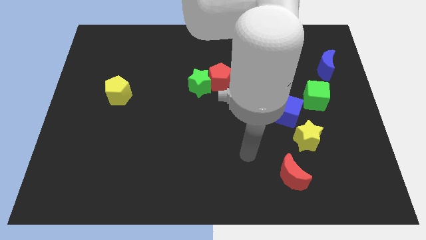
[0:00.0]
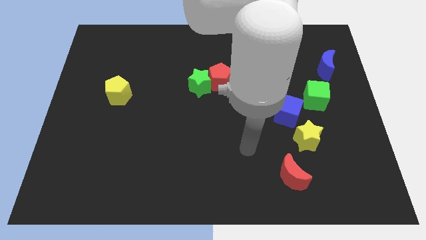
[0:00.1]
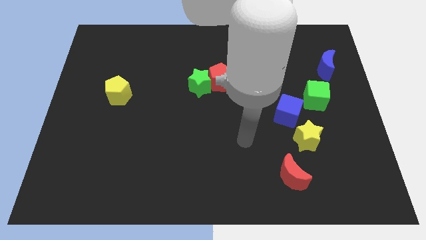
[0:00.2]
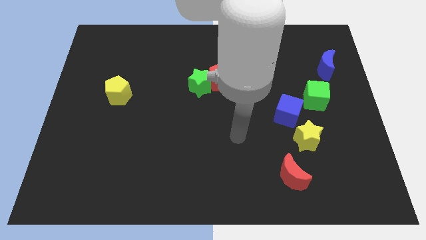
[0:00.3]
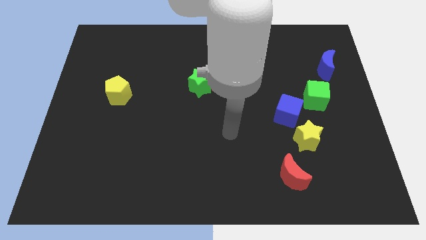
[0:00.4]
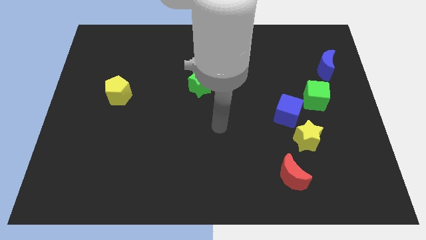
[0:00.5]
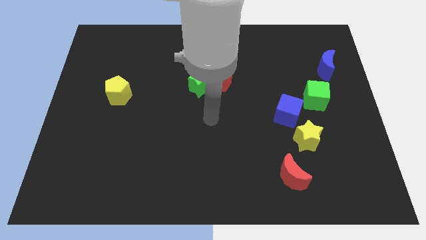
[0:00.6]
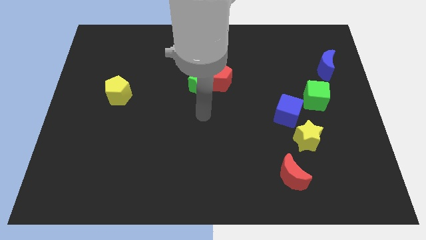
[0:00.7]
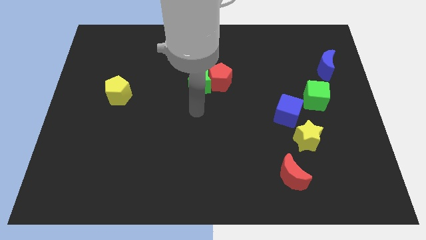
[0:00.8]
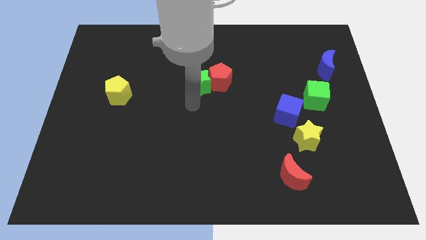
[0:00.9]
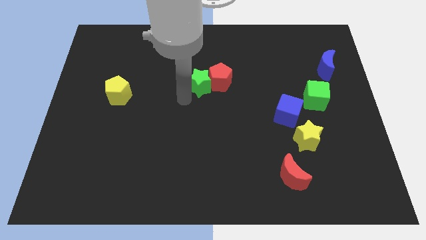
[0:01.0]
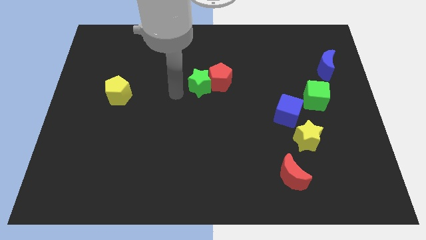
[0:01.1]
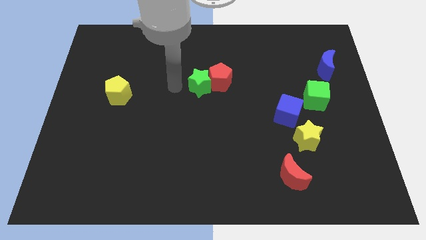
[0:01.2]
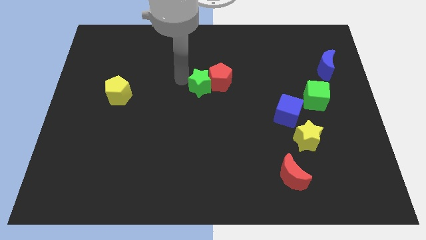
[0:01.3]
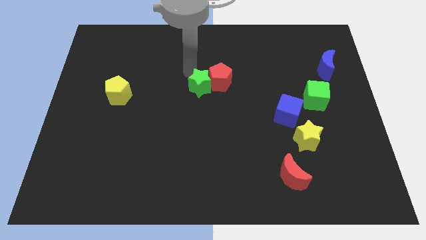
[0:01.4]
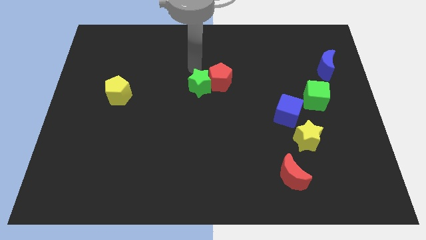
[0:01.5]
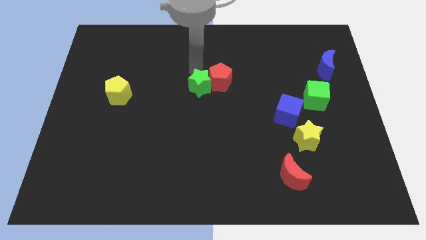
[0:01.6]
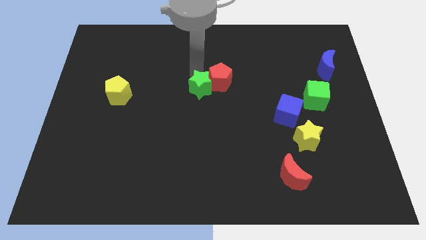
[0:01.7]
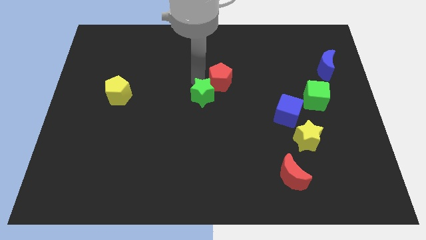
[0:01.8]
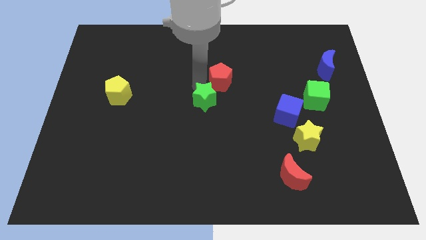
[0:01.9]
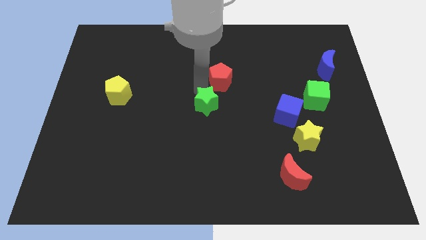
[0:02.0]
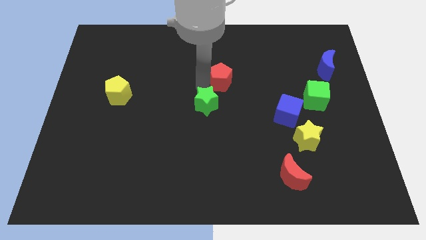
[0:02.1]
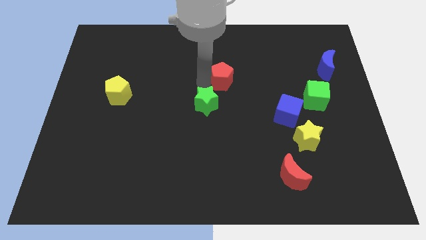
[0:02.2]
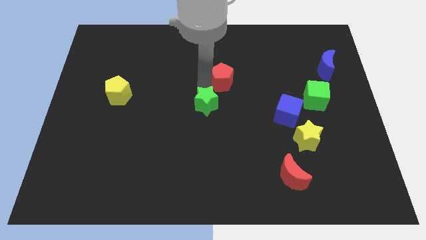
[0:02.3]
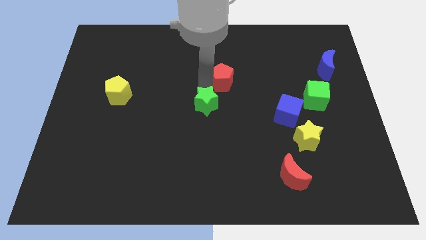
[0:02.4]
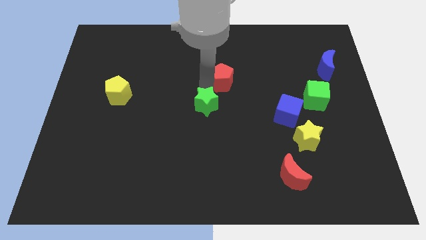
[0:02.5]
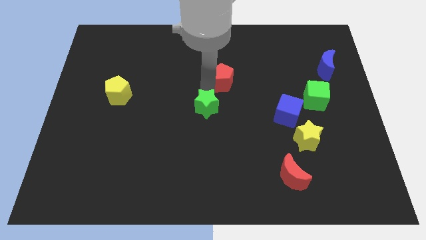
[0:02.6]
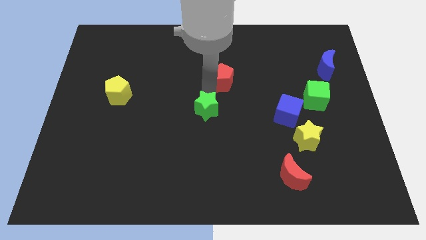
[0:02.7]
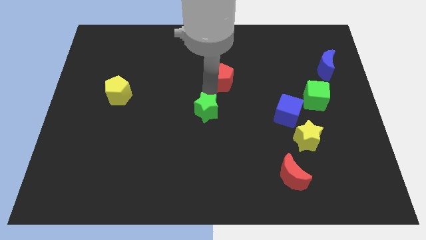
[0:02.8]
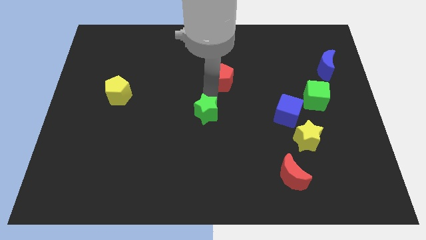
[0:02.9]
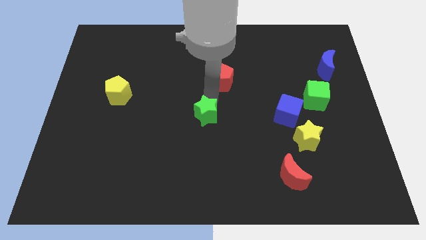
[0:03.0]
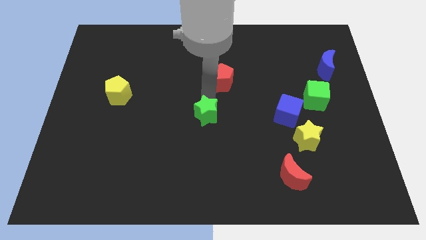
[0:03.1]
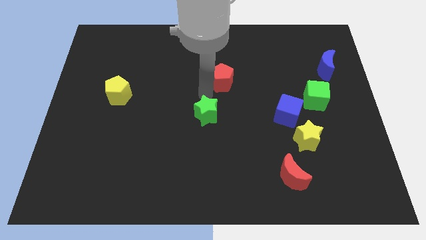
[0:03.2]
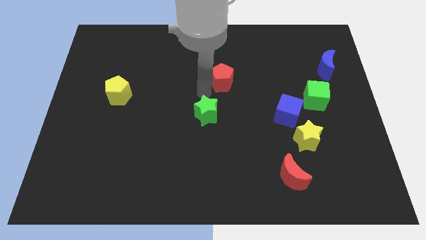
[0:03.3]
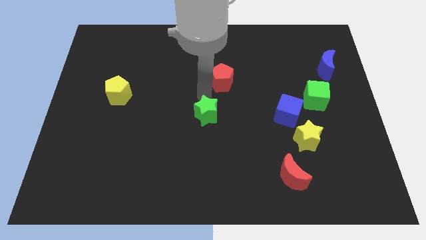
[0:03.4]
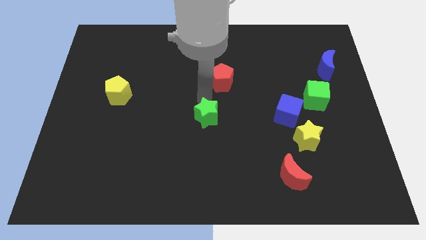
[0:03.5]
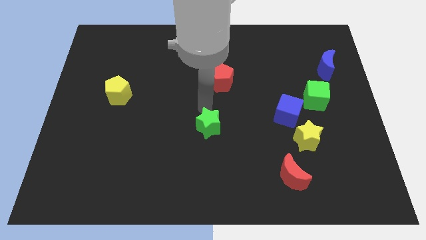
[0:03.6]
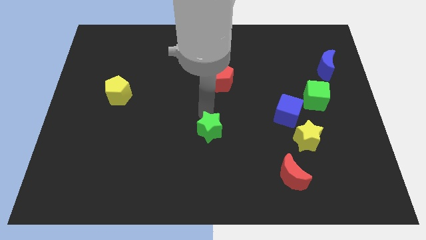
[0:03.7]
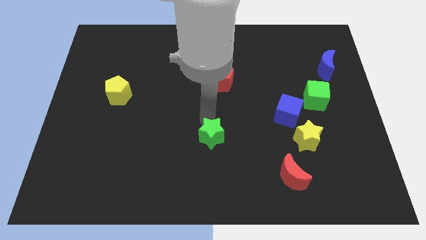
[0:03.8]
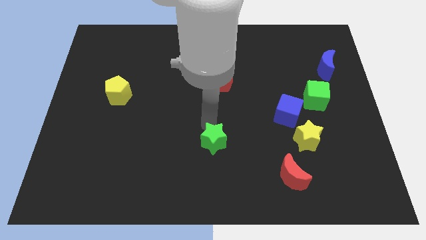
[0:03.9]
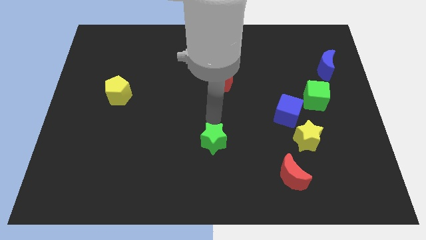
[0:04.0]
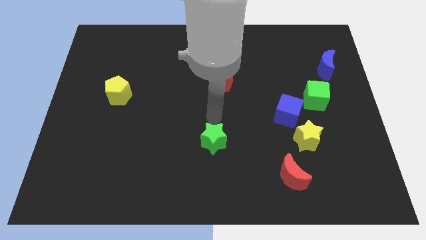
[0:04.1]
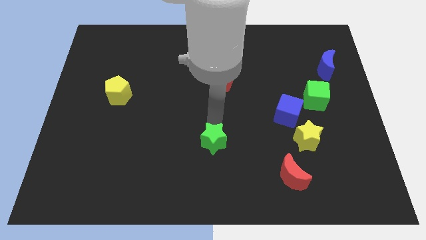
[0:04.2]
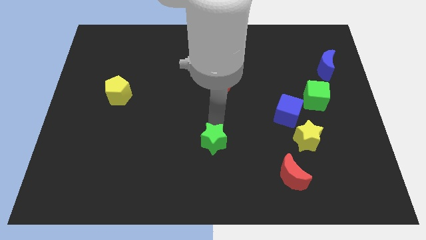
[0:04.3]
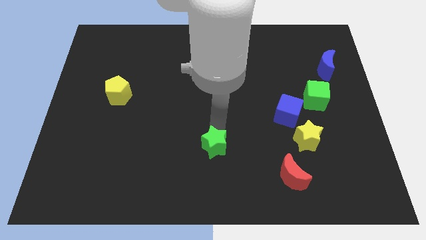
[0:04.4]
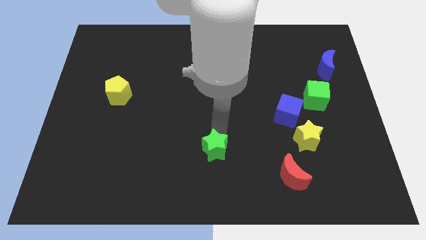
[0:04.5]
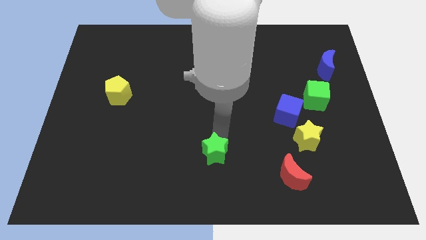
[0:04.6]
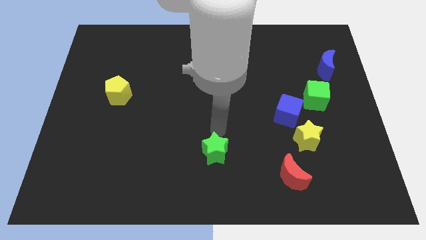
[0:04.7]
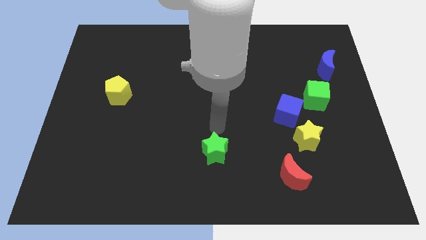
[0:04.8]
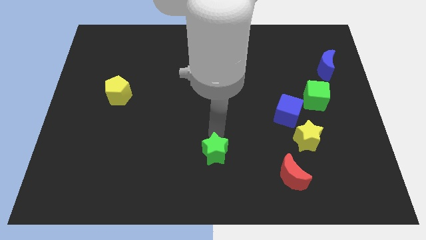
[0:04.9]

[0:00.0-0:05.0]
push the green star to the bottom

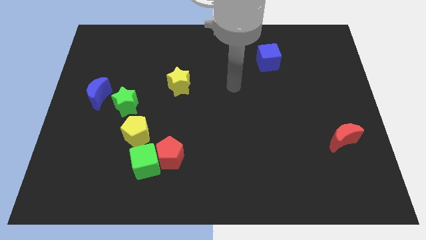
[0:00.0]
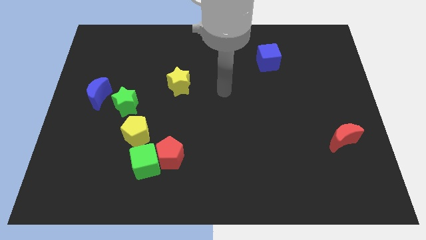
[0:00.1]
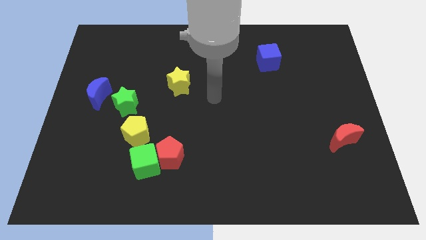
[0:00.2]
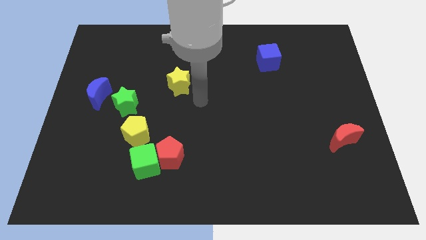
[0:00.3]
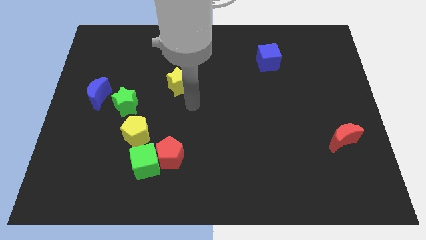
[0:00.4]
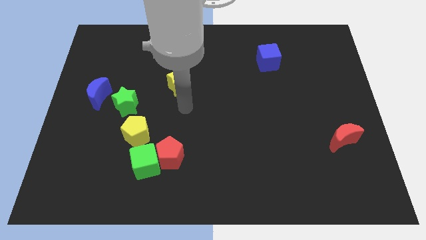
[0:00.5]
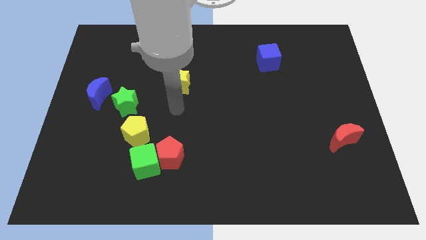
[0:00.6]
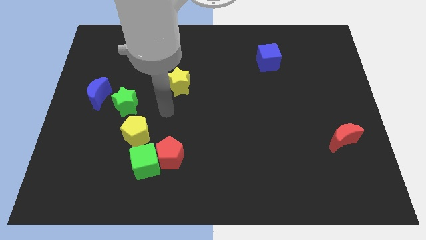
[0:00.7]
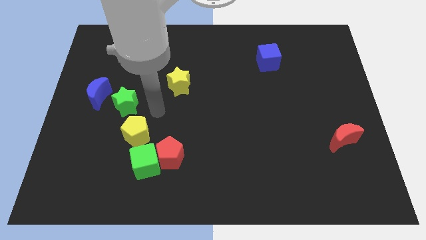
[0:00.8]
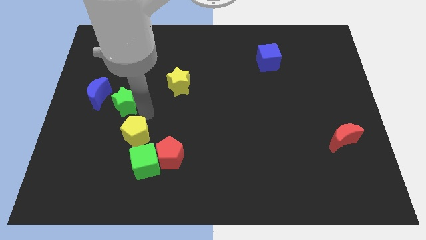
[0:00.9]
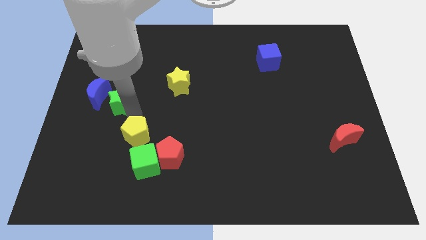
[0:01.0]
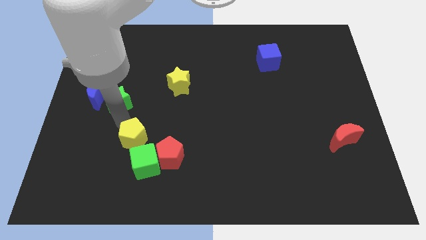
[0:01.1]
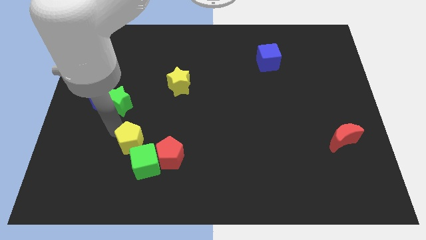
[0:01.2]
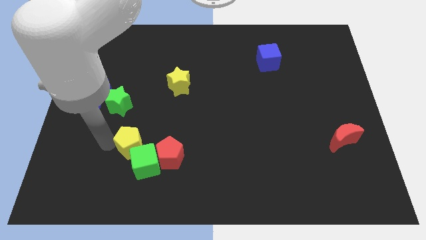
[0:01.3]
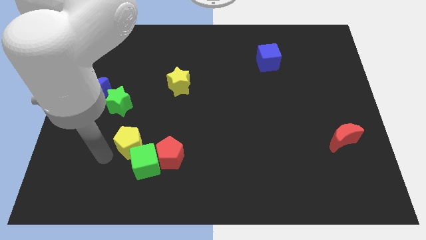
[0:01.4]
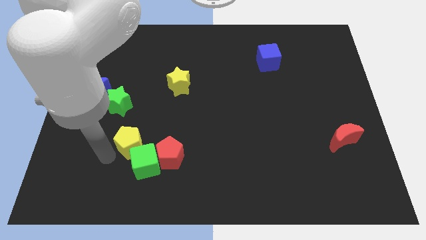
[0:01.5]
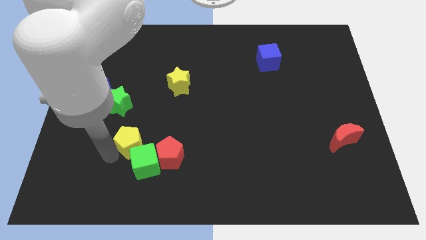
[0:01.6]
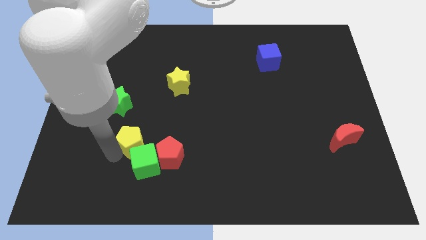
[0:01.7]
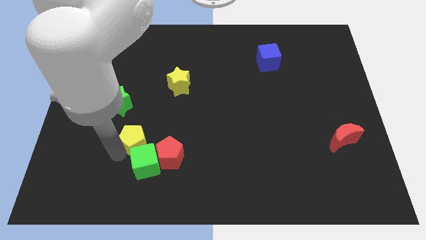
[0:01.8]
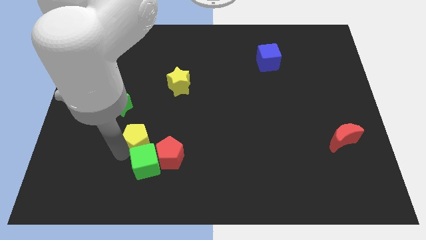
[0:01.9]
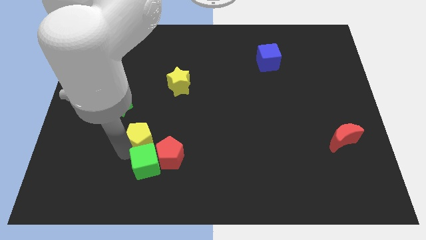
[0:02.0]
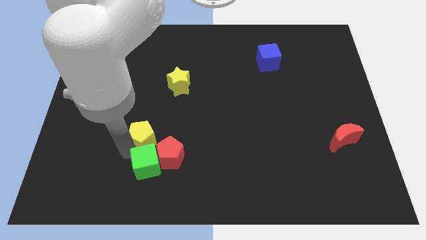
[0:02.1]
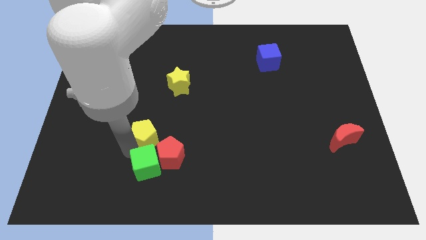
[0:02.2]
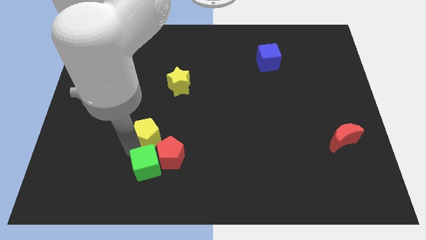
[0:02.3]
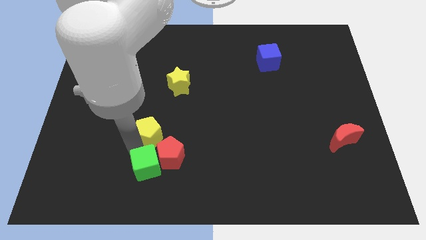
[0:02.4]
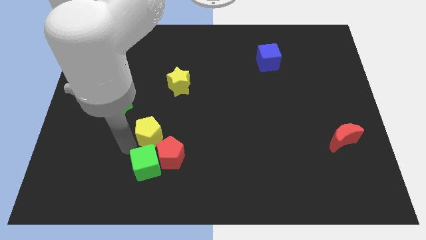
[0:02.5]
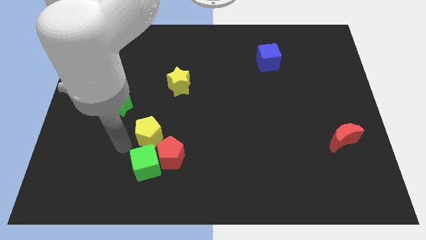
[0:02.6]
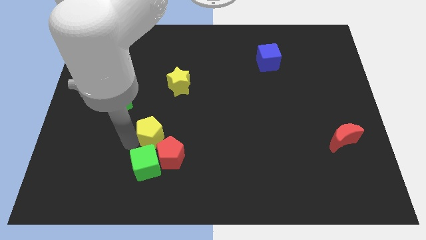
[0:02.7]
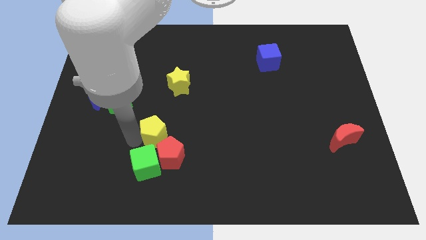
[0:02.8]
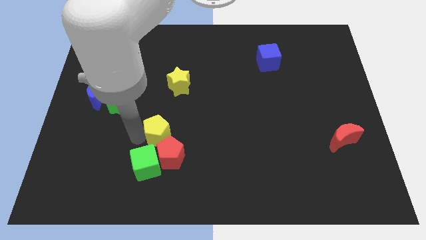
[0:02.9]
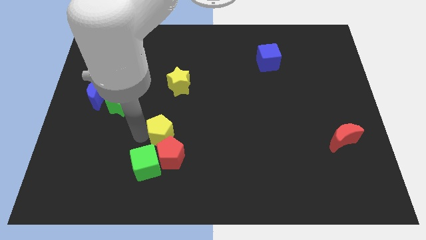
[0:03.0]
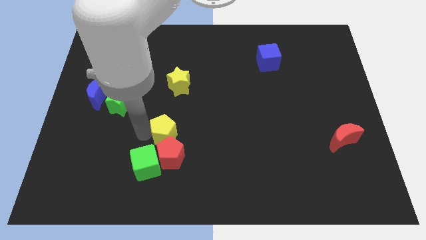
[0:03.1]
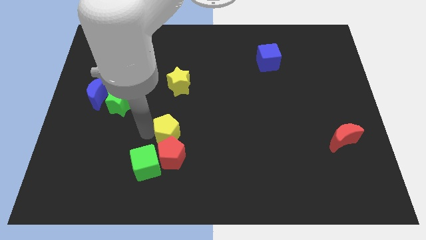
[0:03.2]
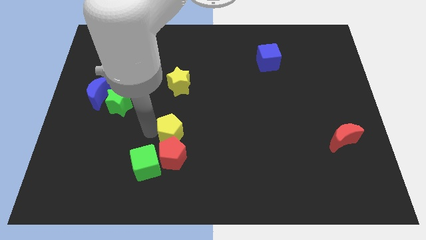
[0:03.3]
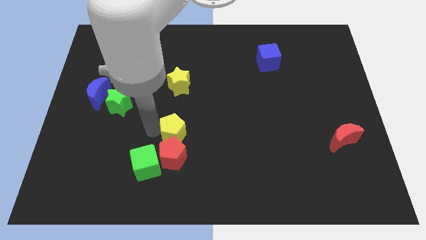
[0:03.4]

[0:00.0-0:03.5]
push the yellow pentagon to the center of the board
